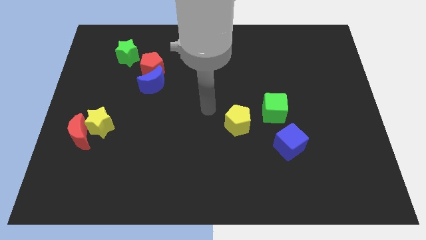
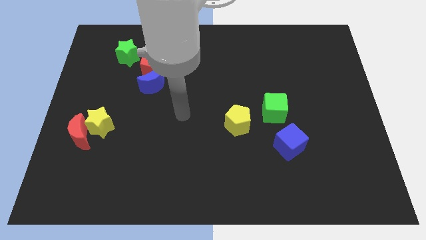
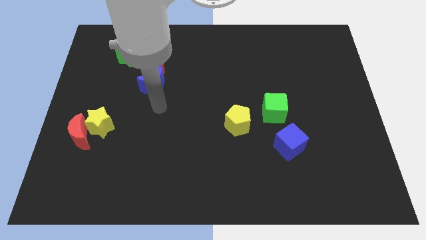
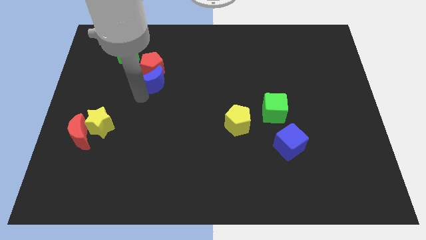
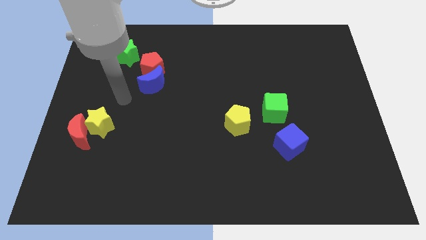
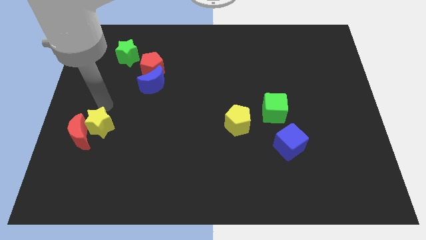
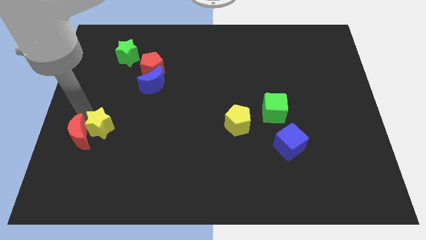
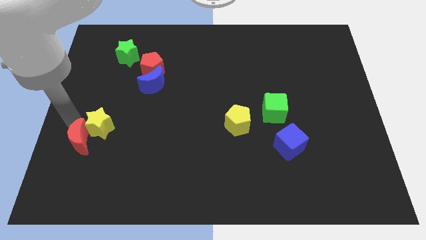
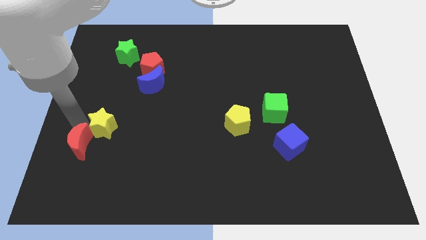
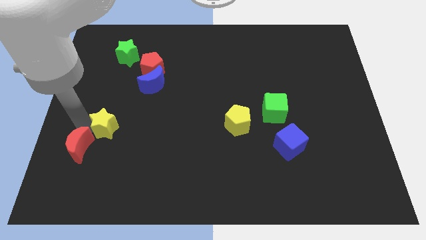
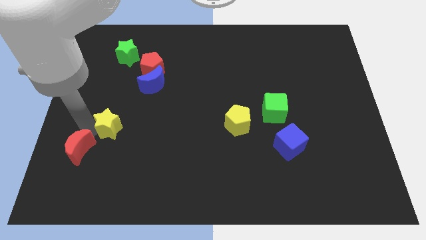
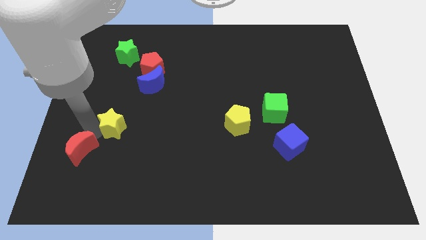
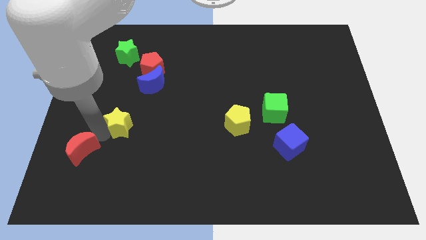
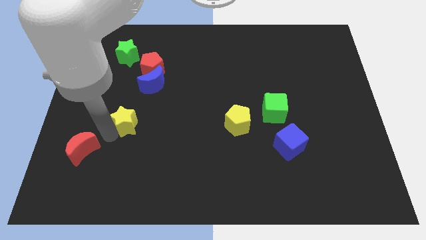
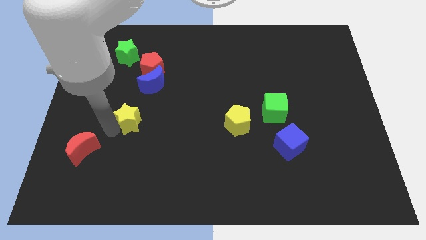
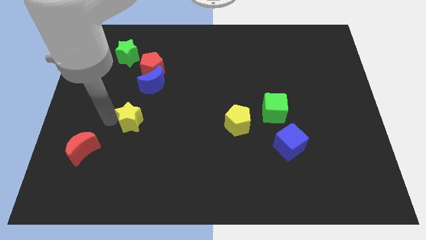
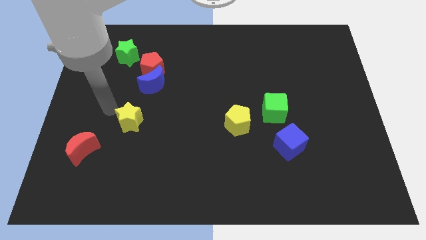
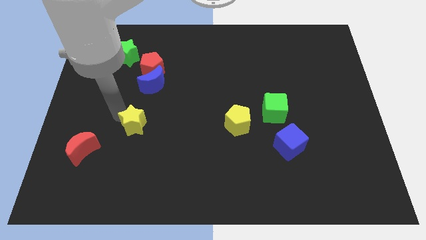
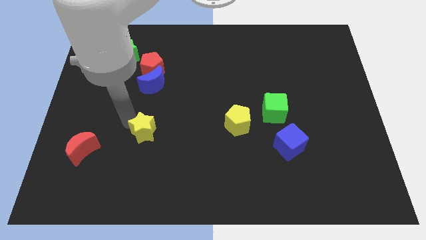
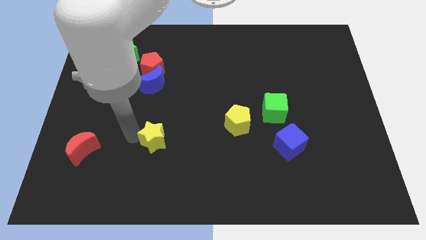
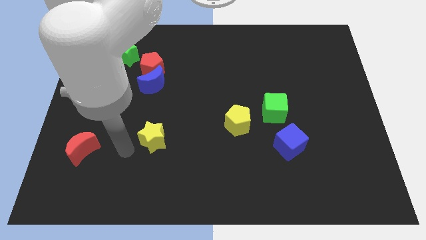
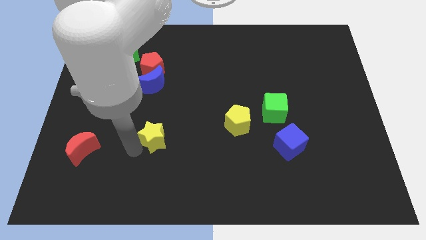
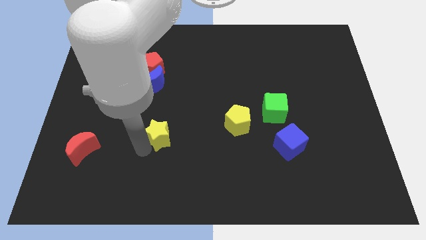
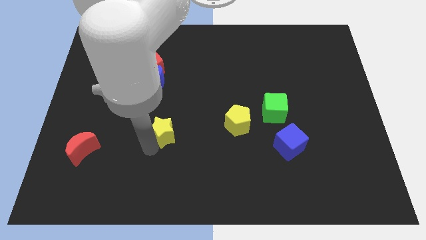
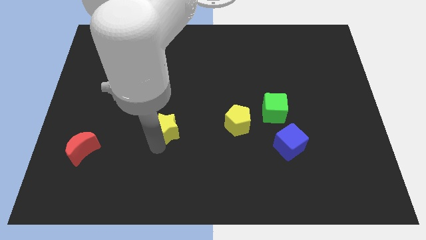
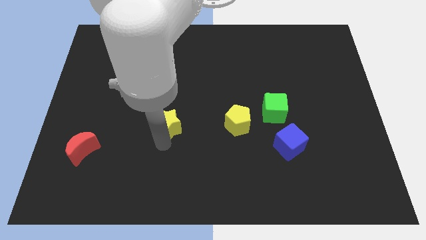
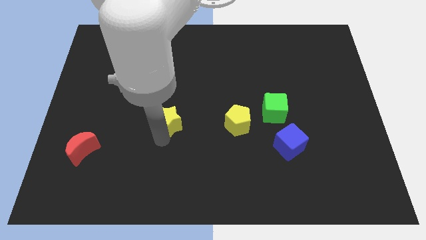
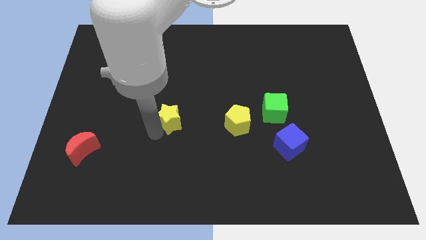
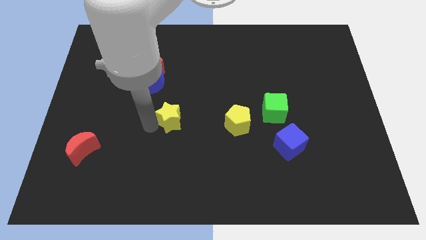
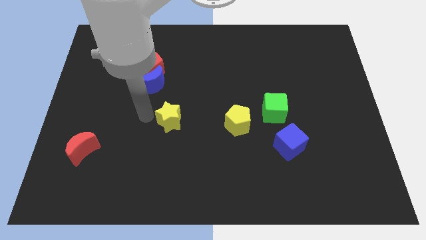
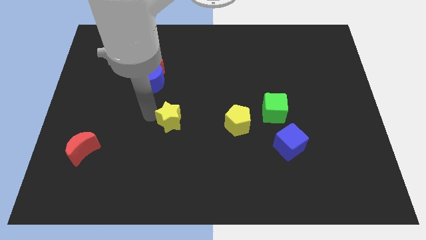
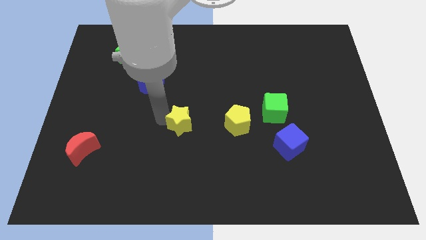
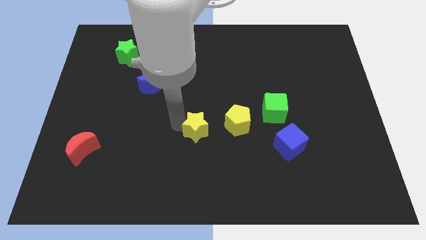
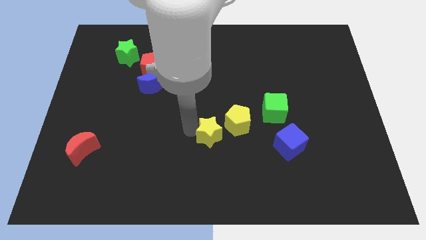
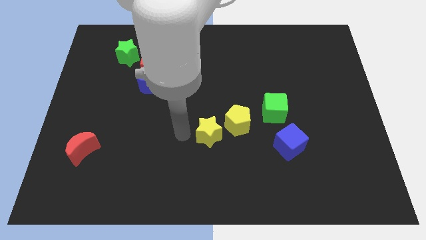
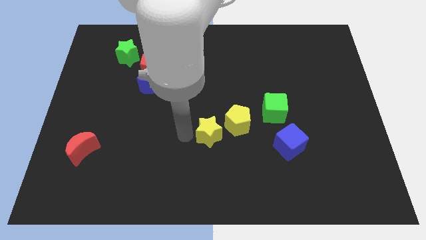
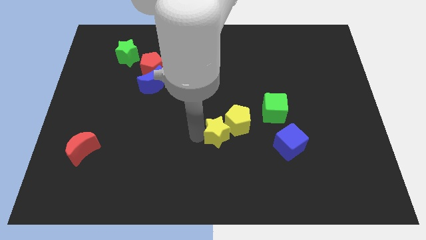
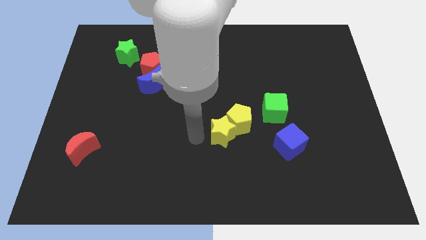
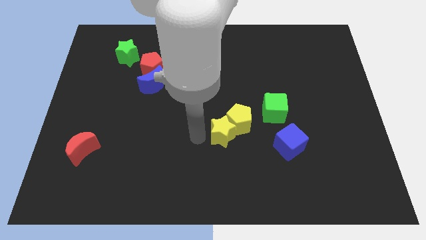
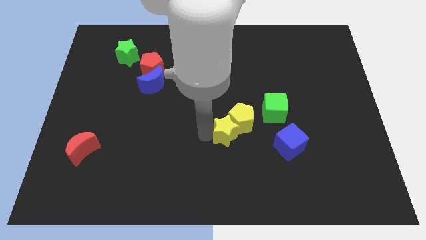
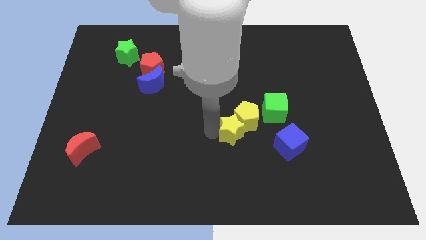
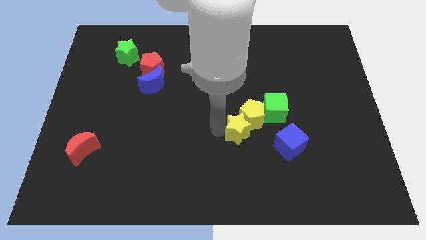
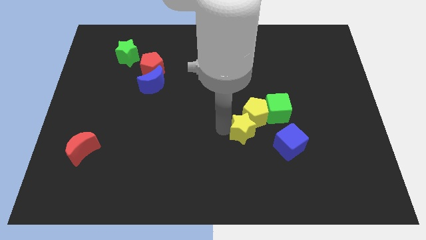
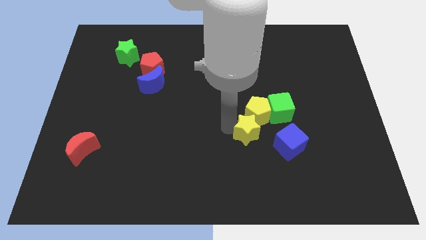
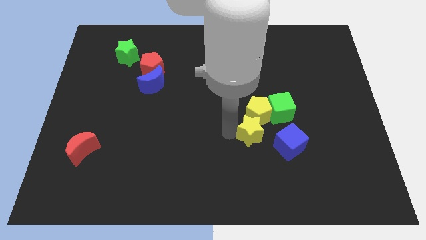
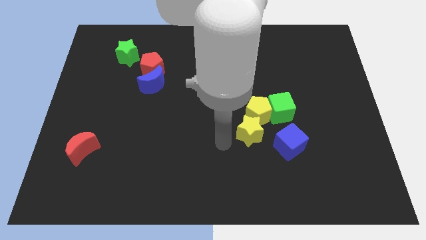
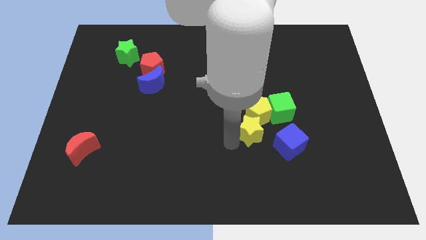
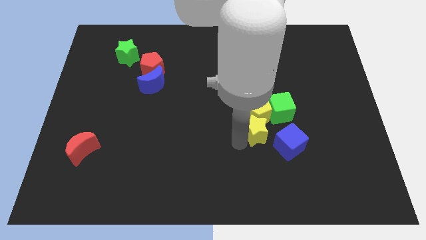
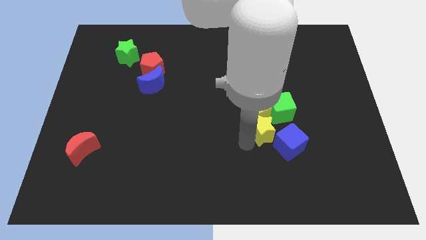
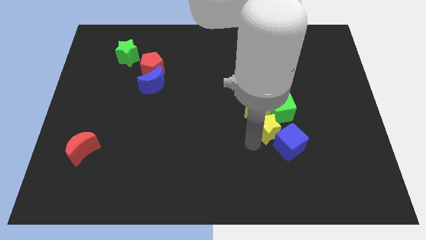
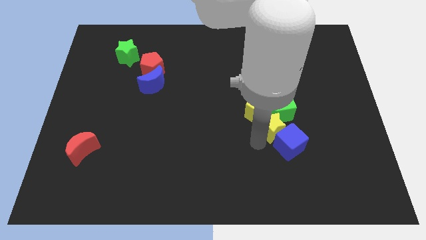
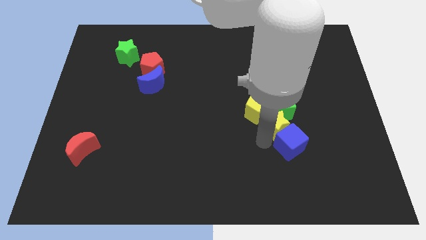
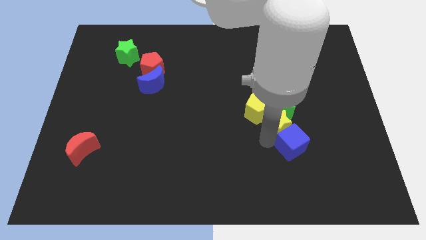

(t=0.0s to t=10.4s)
slide the yellow star to the bottom right of the green cube

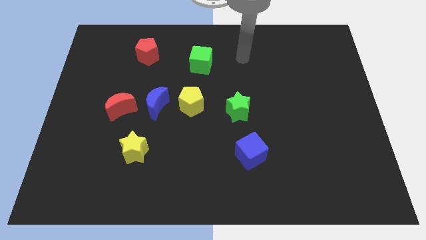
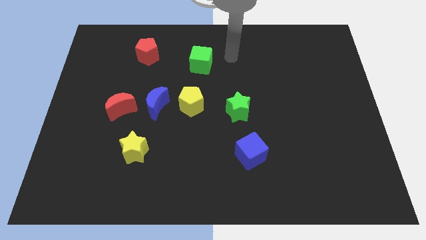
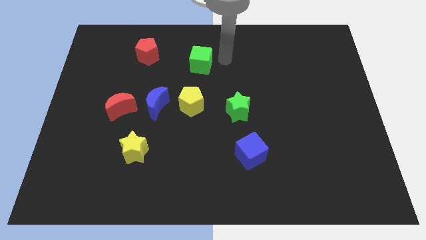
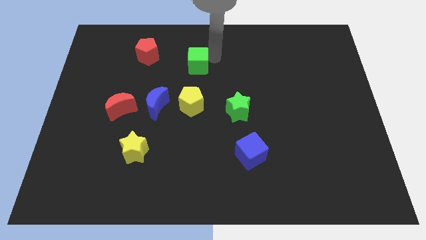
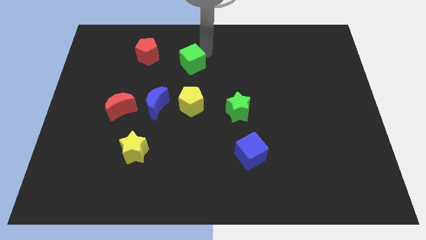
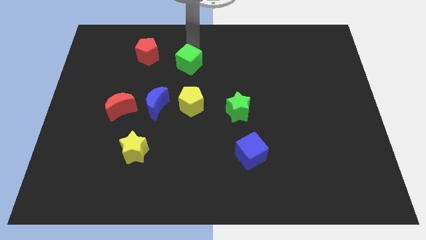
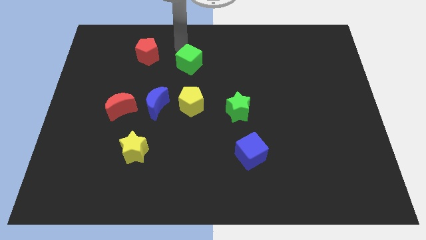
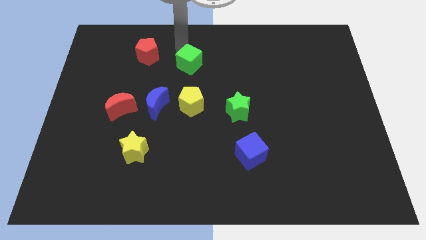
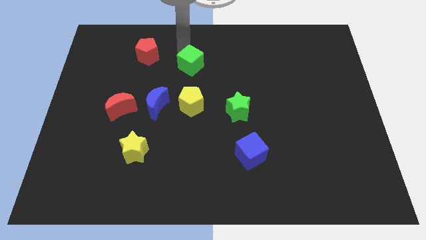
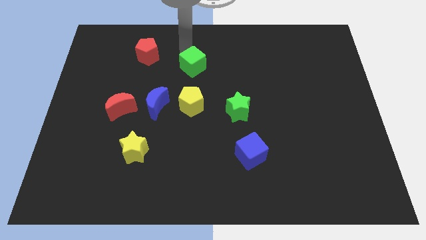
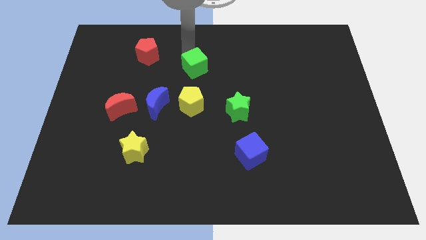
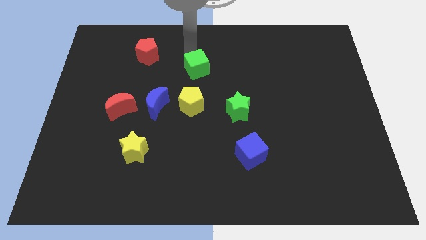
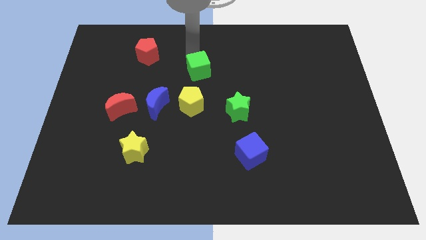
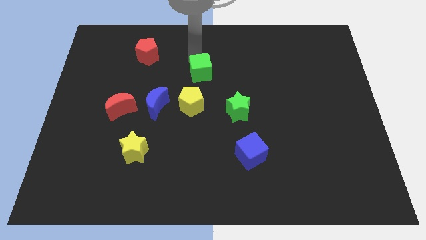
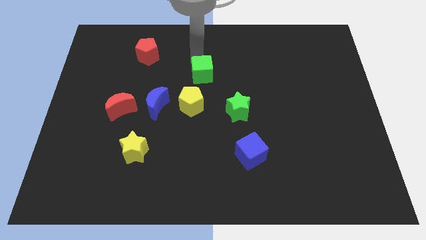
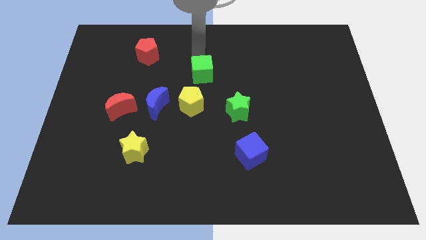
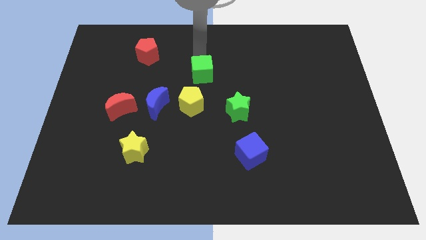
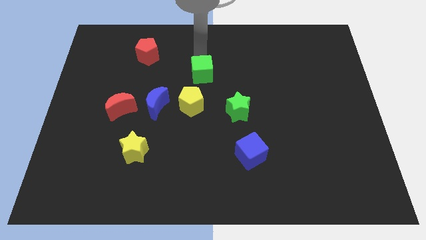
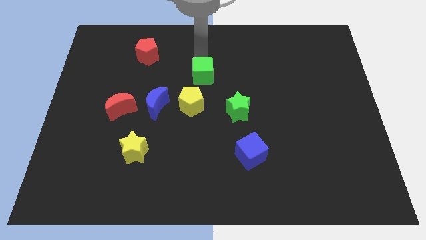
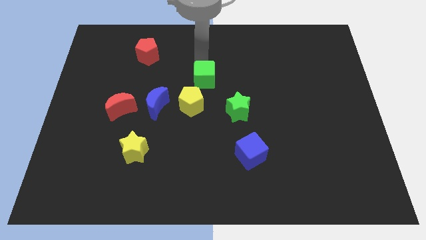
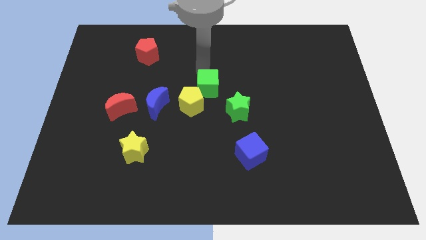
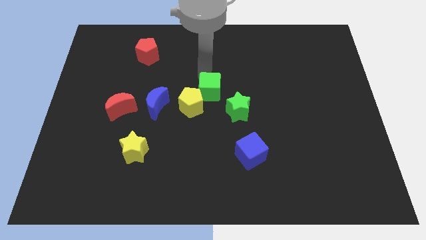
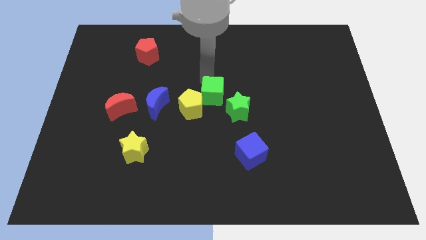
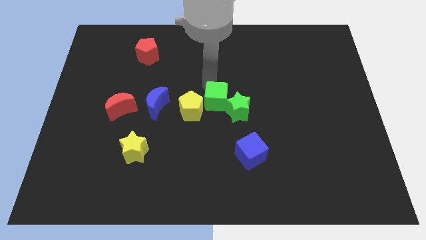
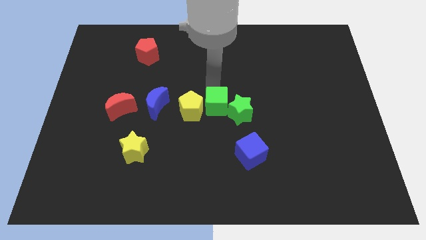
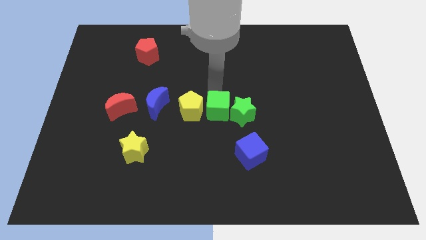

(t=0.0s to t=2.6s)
move the green cube to the bottom left side of the green star

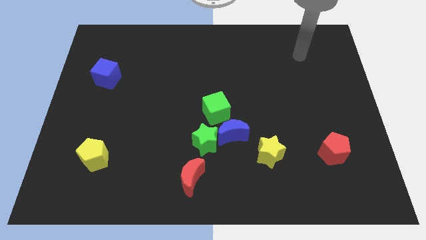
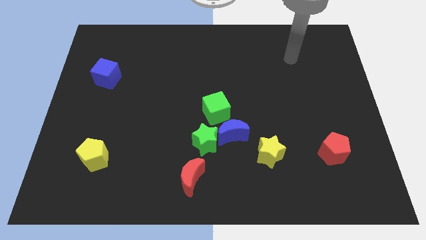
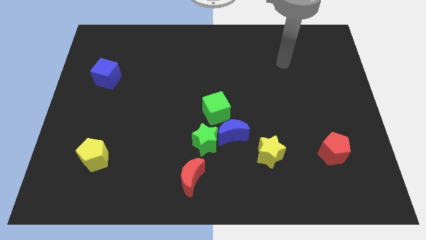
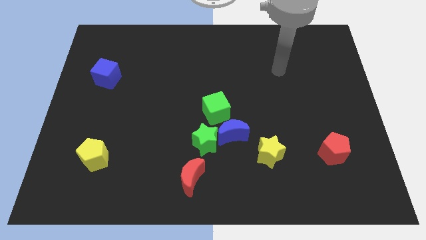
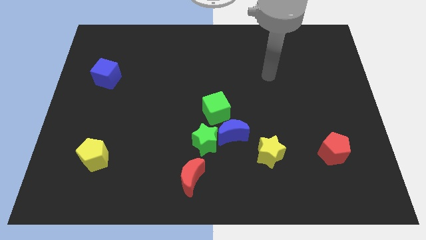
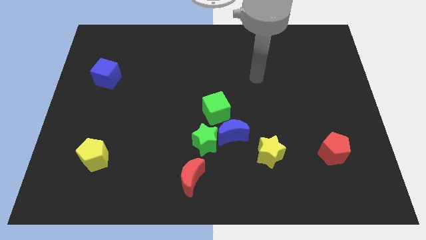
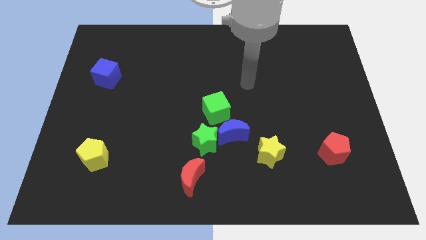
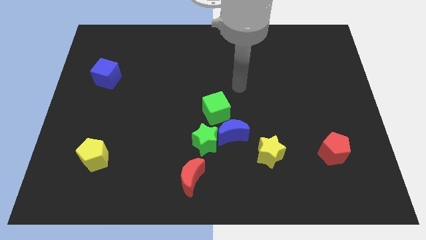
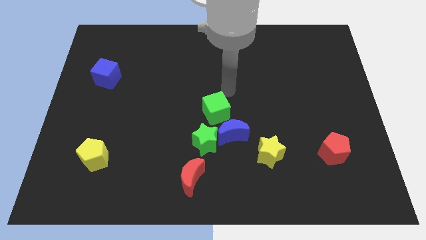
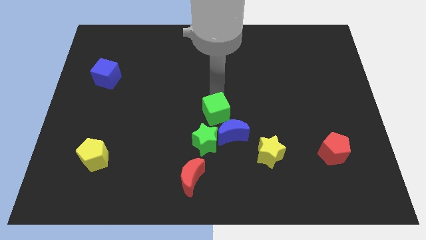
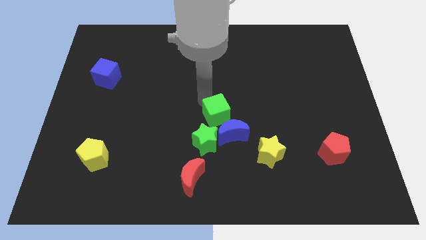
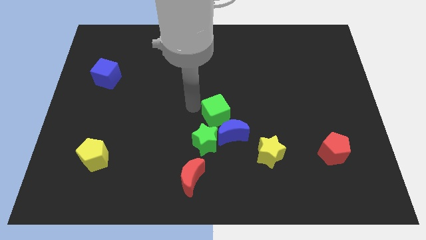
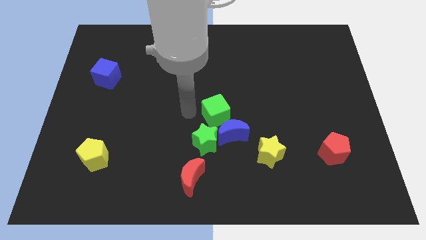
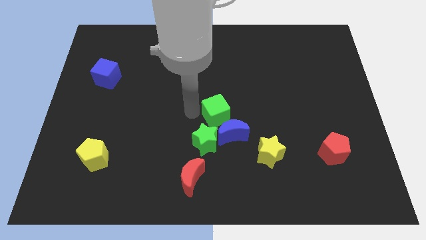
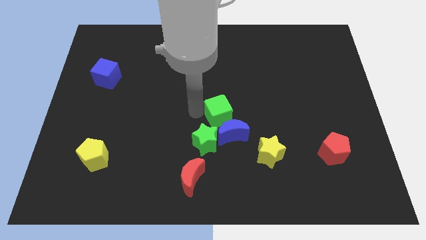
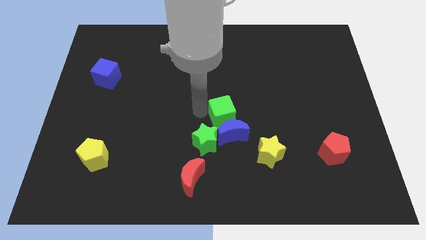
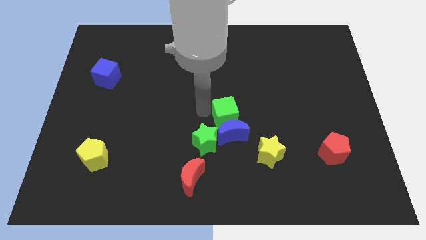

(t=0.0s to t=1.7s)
push the green cube diagonally up and to the right of the blue moon
